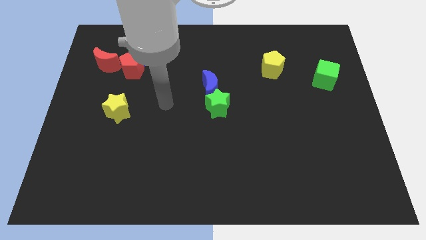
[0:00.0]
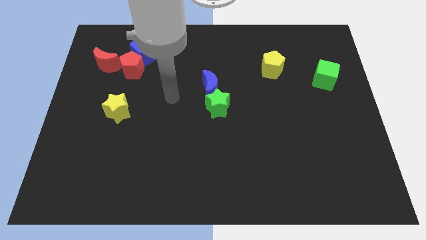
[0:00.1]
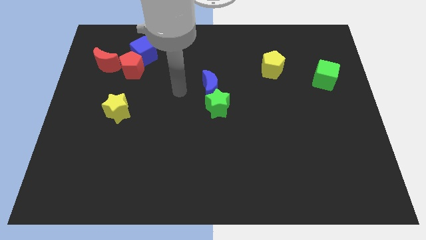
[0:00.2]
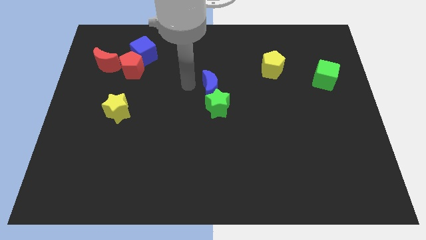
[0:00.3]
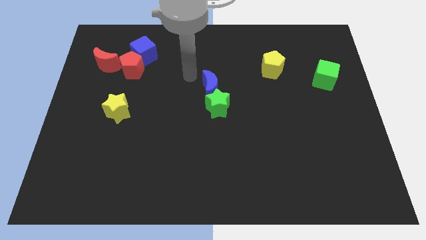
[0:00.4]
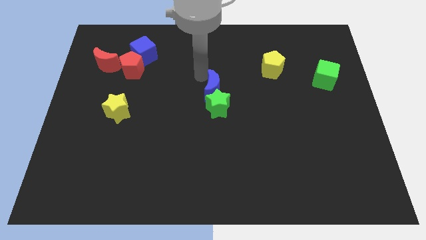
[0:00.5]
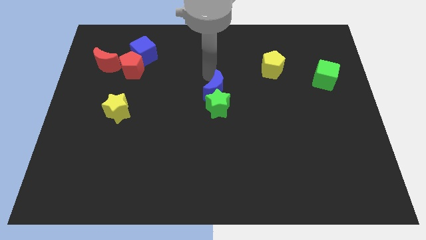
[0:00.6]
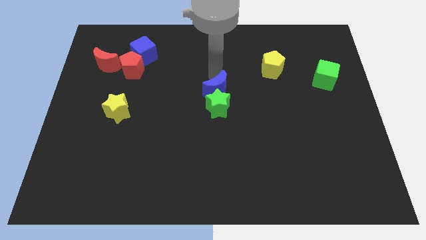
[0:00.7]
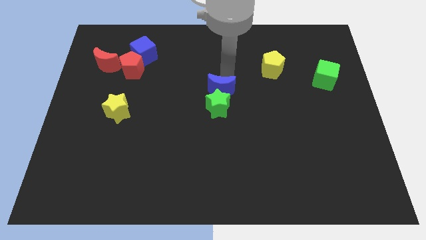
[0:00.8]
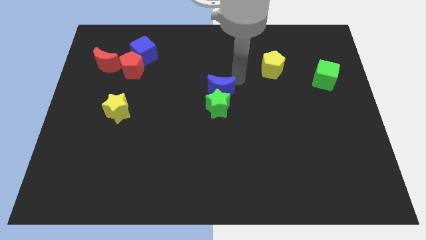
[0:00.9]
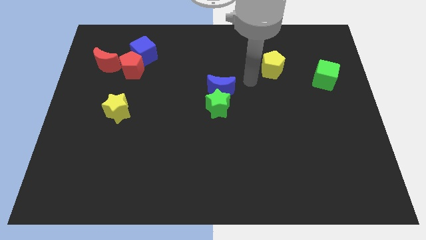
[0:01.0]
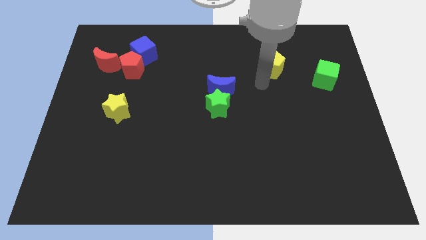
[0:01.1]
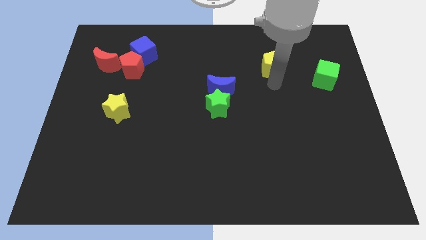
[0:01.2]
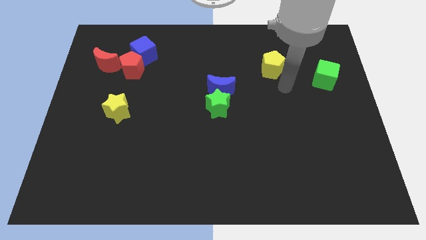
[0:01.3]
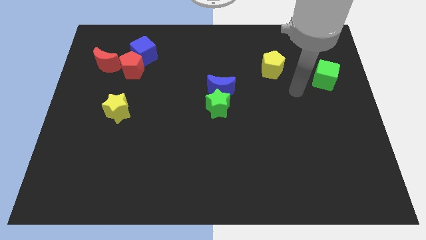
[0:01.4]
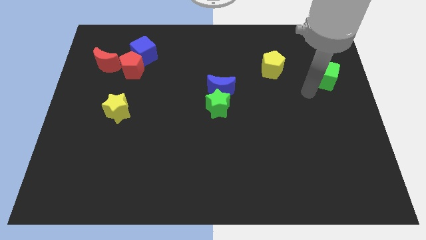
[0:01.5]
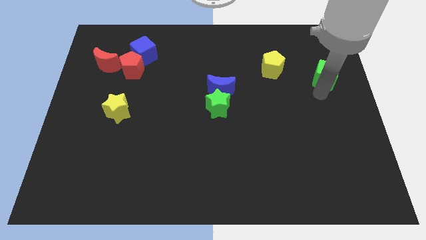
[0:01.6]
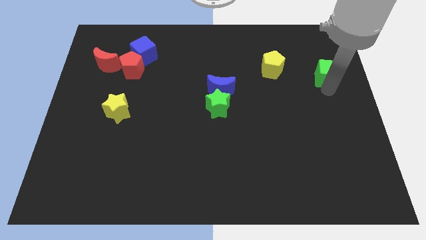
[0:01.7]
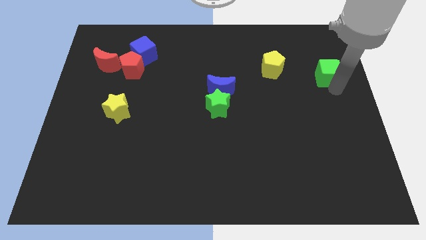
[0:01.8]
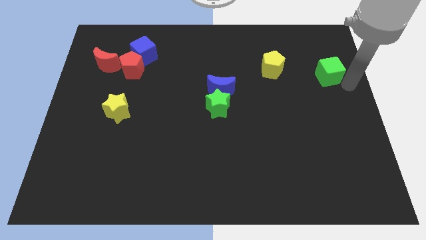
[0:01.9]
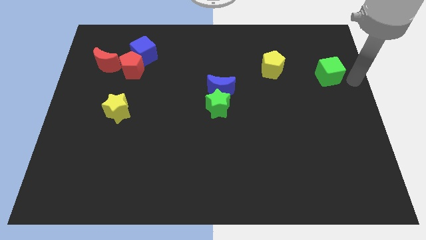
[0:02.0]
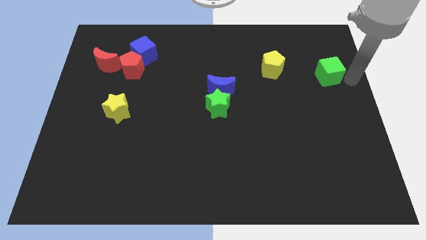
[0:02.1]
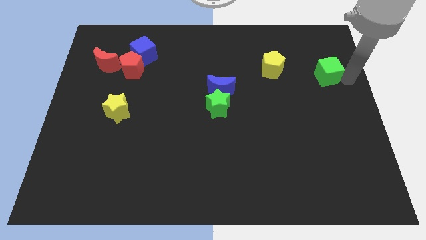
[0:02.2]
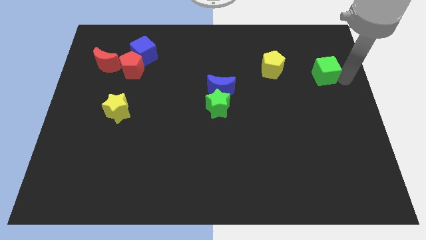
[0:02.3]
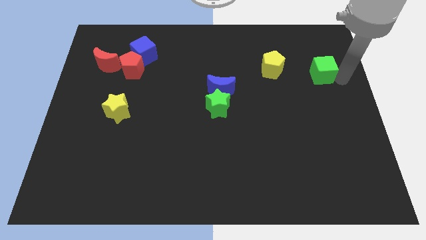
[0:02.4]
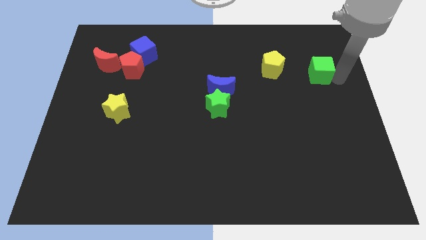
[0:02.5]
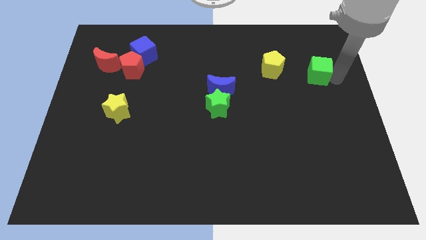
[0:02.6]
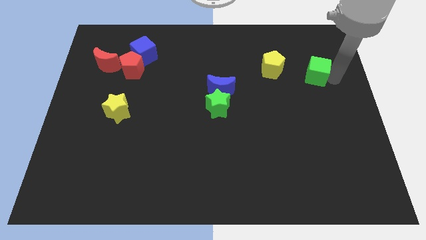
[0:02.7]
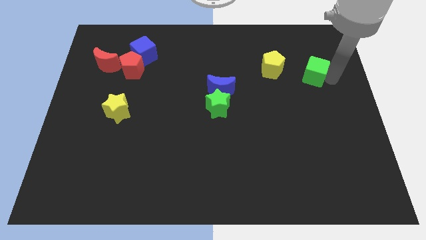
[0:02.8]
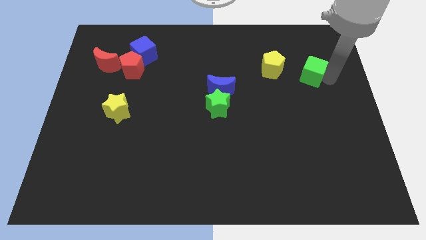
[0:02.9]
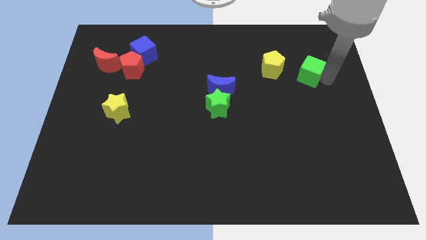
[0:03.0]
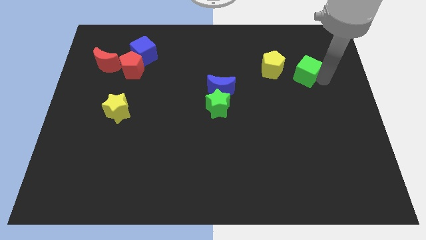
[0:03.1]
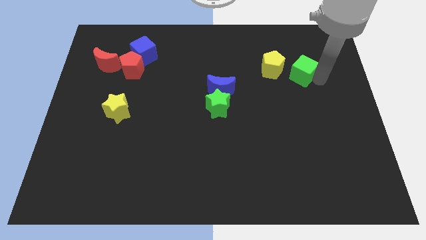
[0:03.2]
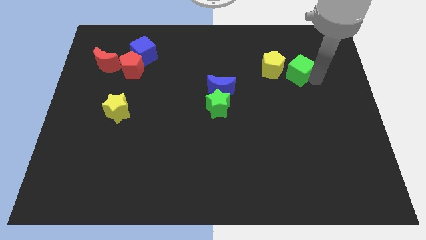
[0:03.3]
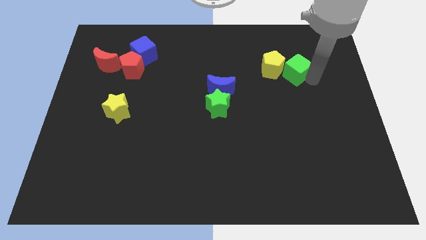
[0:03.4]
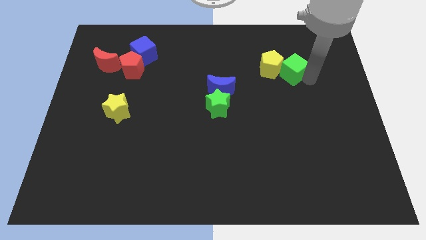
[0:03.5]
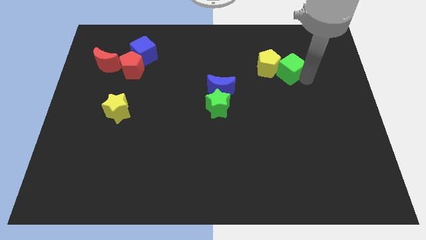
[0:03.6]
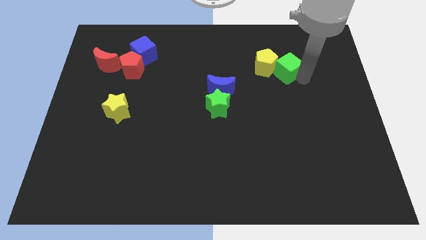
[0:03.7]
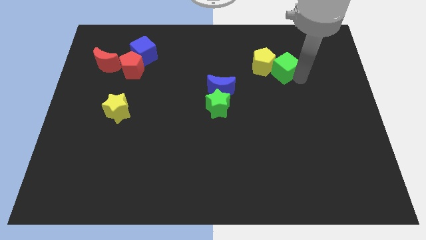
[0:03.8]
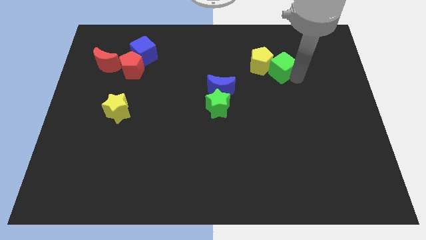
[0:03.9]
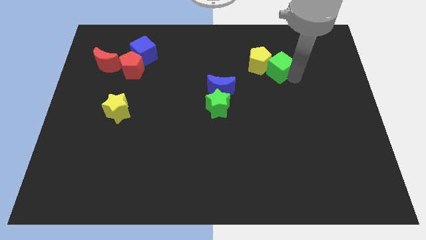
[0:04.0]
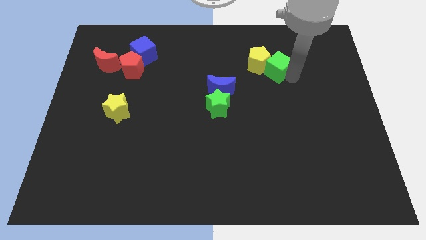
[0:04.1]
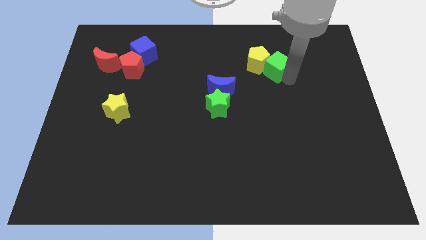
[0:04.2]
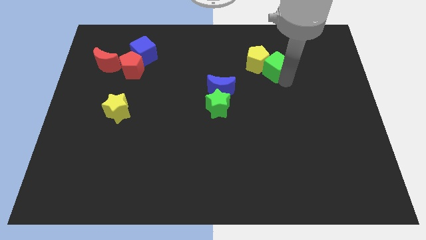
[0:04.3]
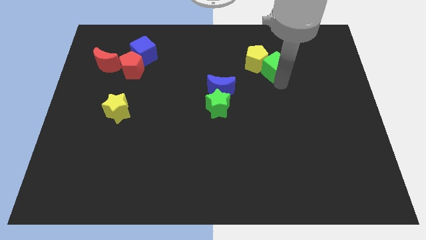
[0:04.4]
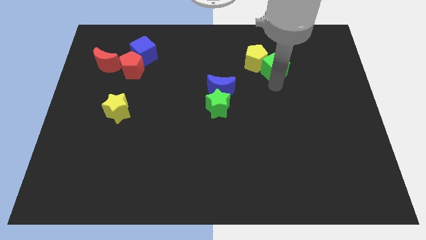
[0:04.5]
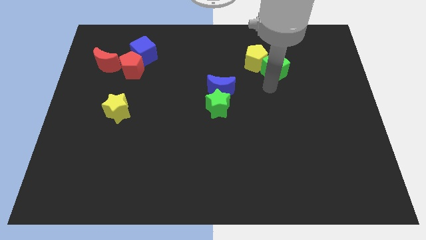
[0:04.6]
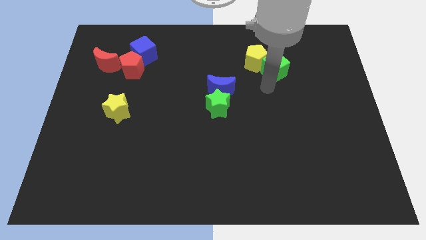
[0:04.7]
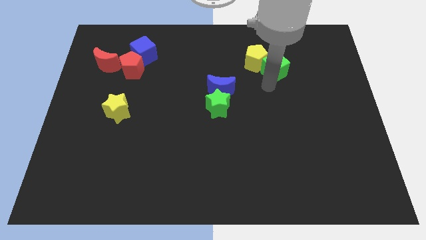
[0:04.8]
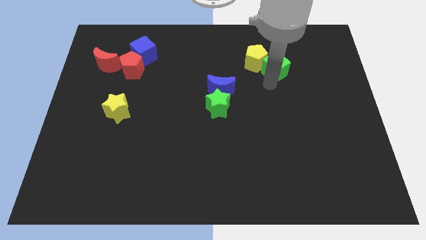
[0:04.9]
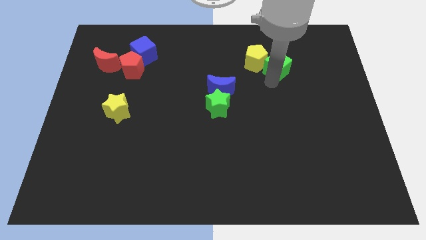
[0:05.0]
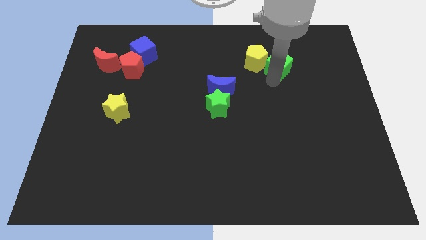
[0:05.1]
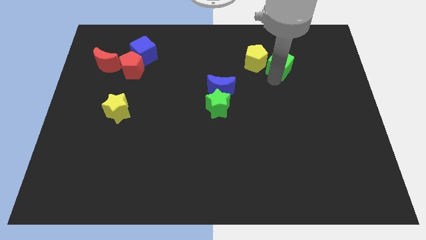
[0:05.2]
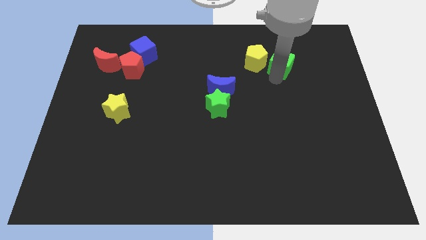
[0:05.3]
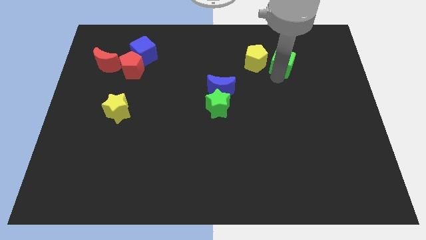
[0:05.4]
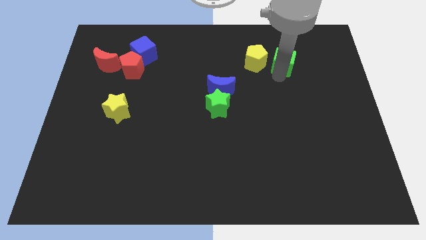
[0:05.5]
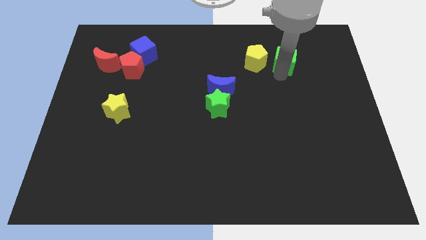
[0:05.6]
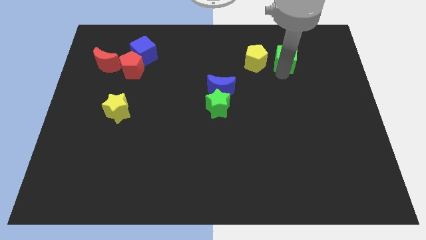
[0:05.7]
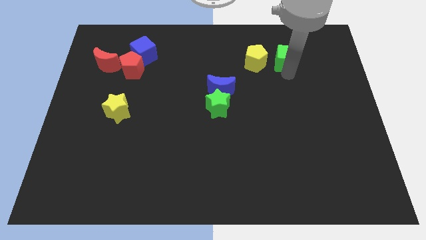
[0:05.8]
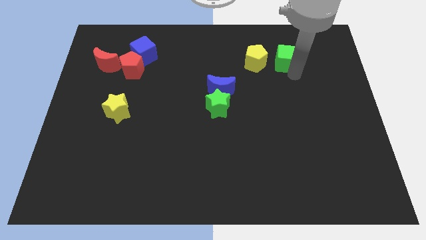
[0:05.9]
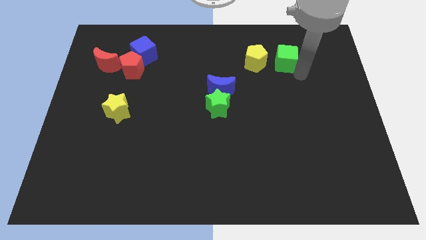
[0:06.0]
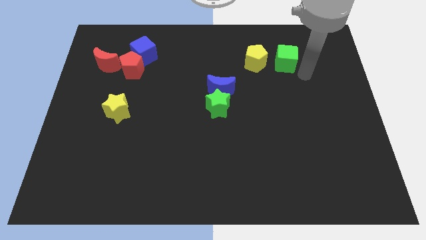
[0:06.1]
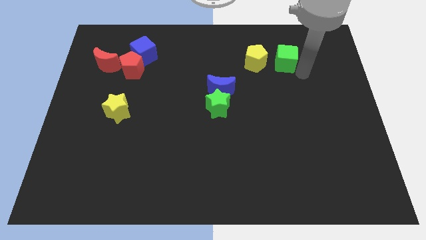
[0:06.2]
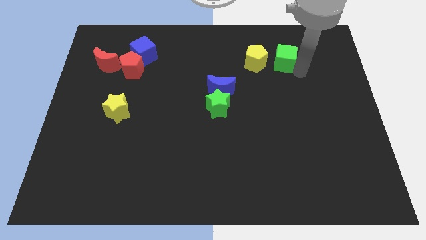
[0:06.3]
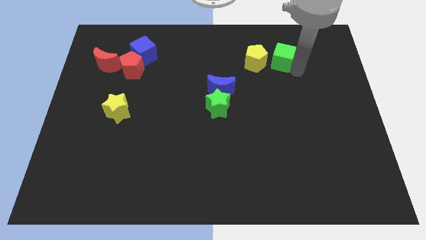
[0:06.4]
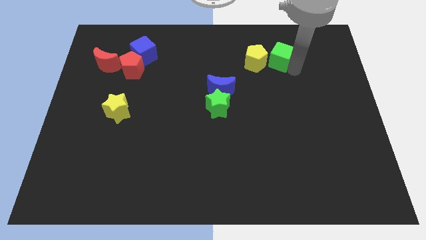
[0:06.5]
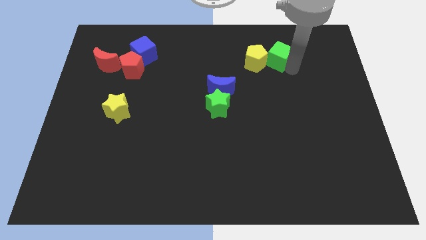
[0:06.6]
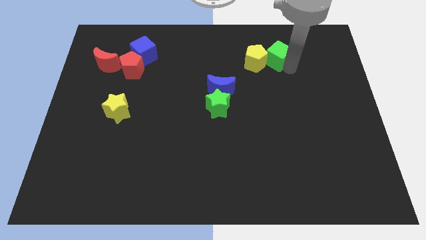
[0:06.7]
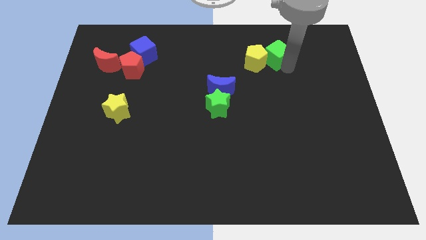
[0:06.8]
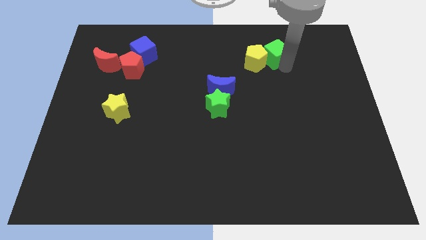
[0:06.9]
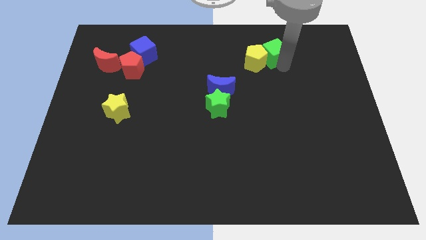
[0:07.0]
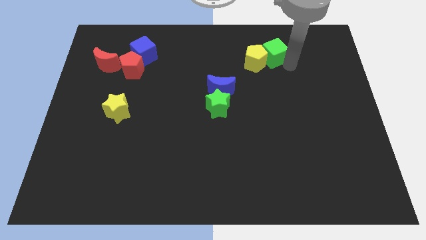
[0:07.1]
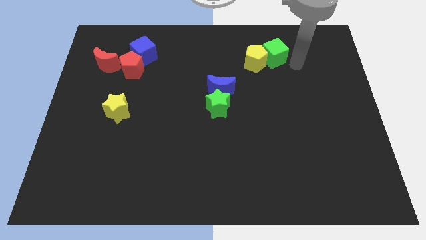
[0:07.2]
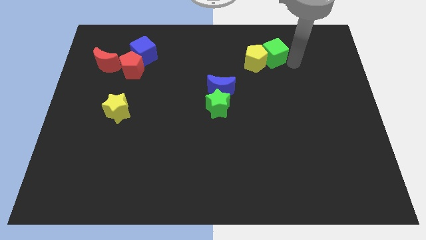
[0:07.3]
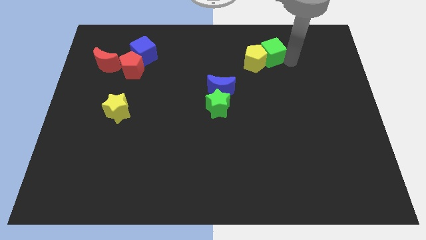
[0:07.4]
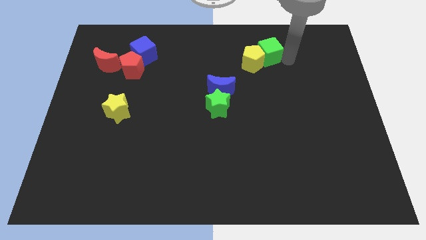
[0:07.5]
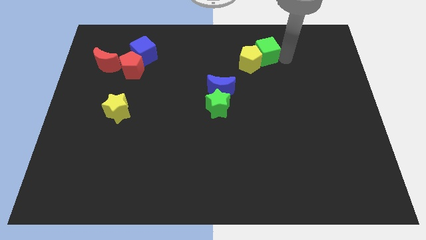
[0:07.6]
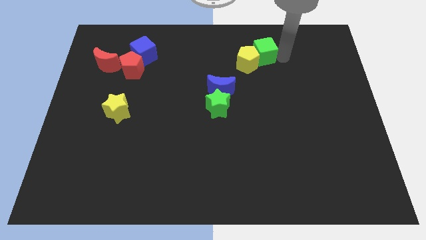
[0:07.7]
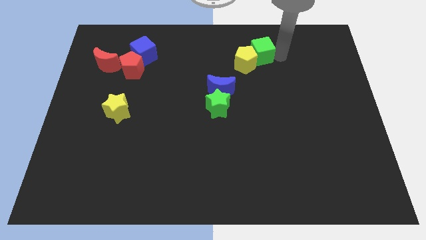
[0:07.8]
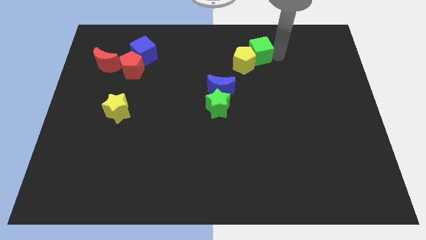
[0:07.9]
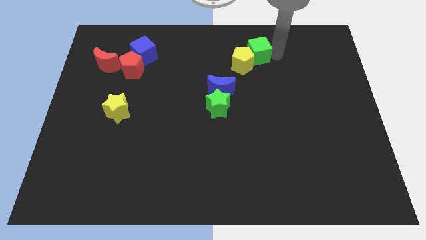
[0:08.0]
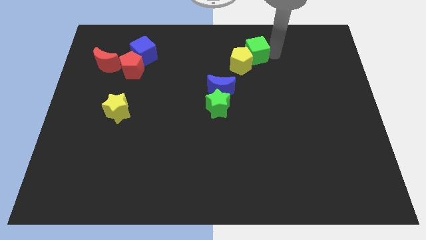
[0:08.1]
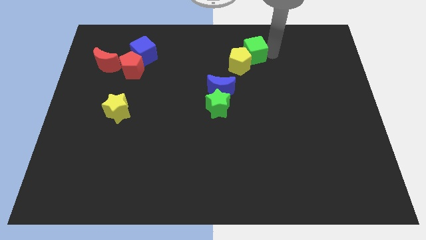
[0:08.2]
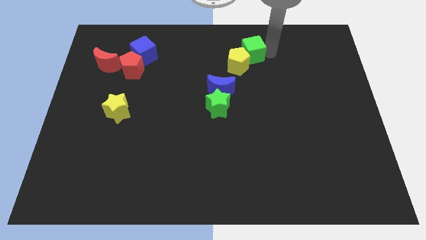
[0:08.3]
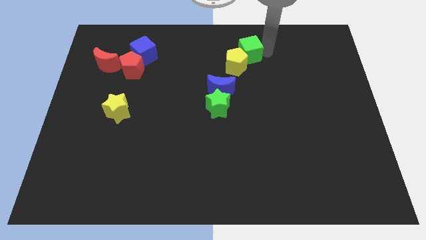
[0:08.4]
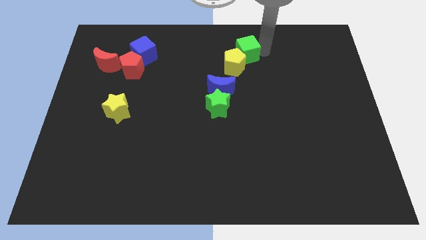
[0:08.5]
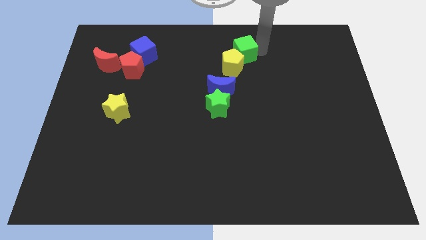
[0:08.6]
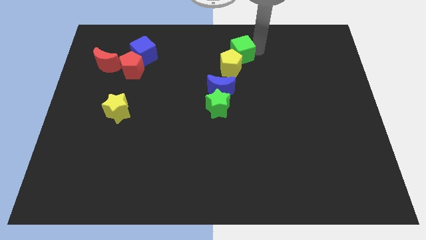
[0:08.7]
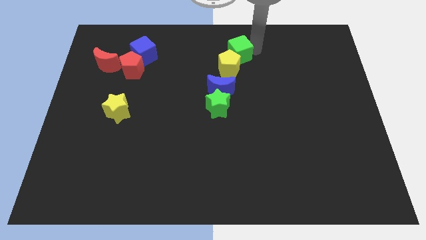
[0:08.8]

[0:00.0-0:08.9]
slide the green cube to the top side
